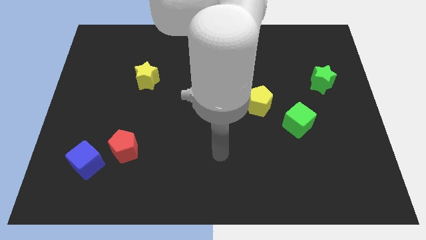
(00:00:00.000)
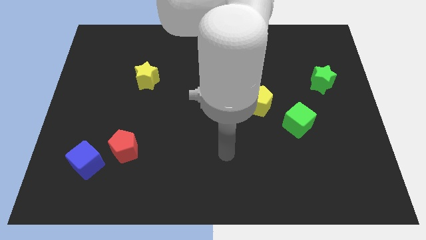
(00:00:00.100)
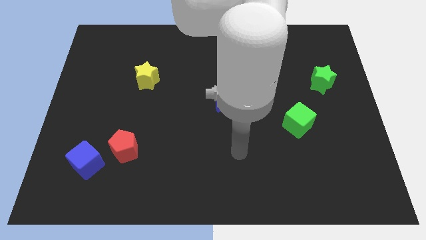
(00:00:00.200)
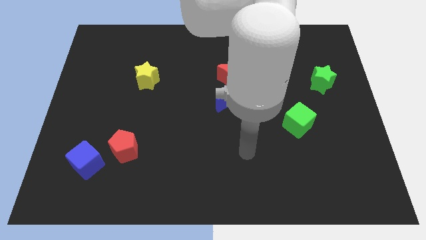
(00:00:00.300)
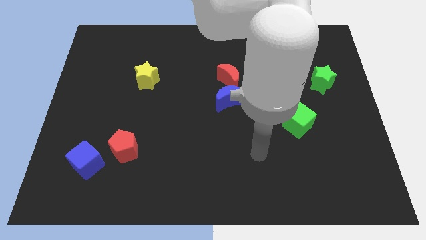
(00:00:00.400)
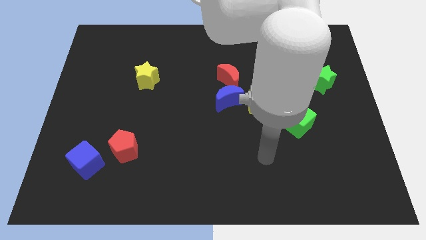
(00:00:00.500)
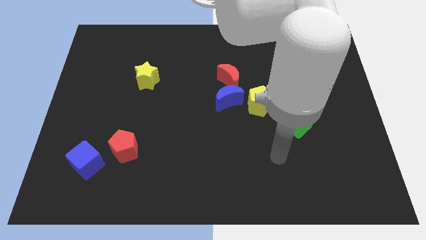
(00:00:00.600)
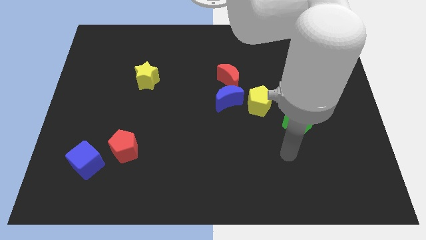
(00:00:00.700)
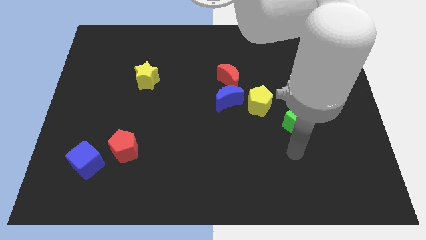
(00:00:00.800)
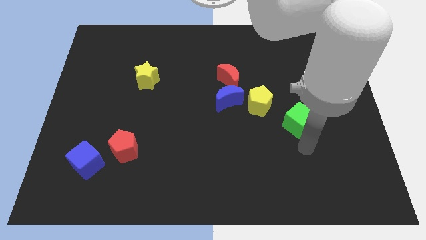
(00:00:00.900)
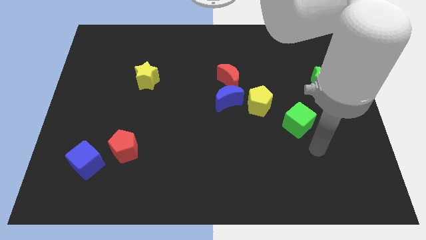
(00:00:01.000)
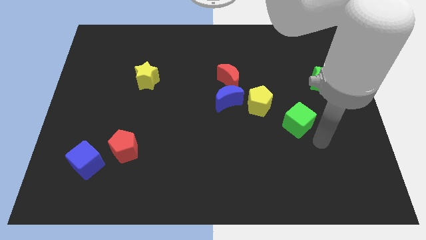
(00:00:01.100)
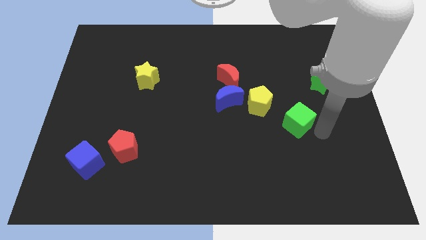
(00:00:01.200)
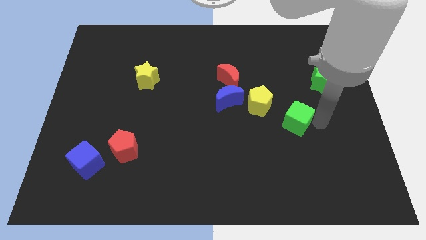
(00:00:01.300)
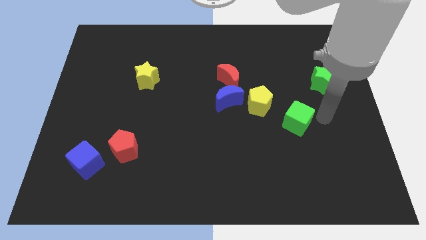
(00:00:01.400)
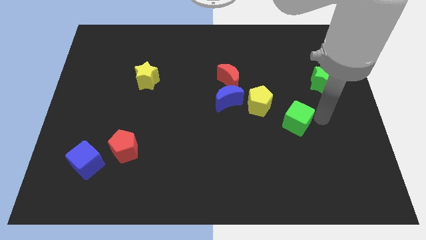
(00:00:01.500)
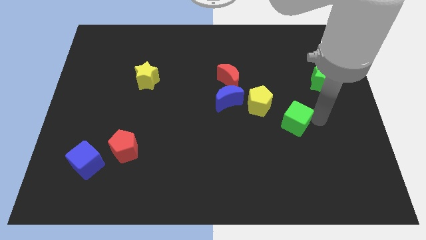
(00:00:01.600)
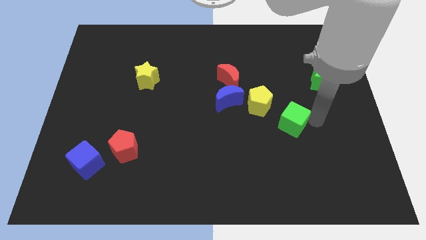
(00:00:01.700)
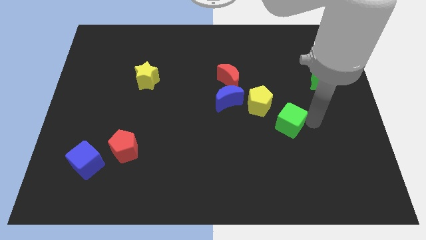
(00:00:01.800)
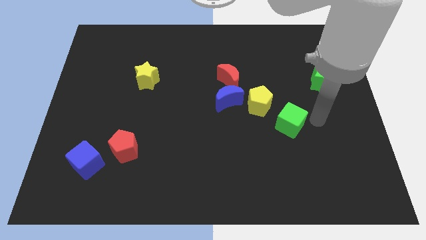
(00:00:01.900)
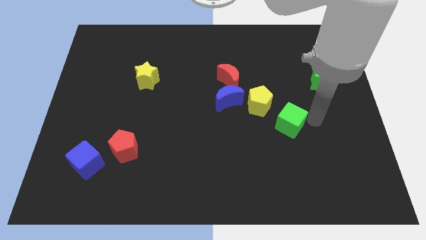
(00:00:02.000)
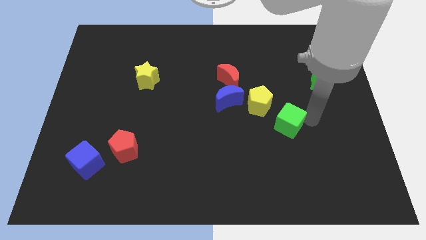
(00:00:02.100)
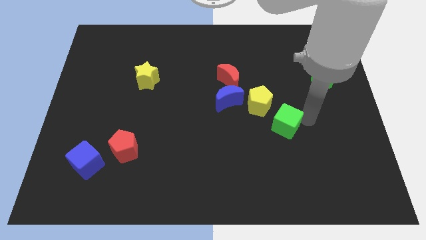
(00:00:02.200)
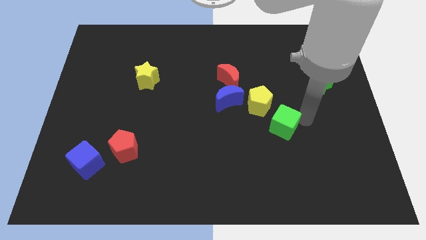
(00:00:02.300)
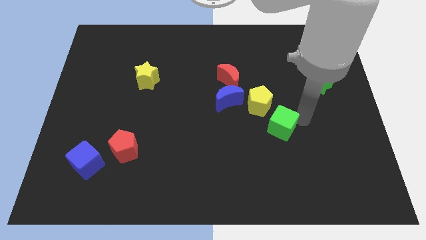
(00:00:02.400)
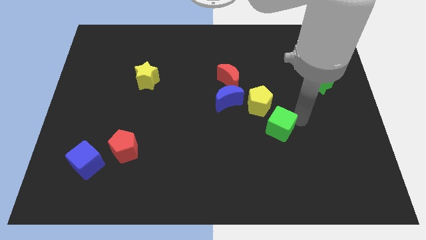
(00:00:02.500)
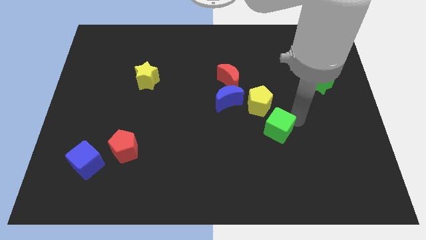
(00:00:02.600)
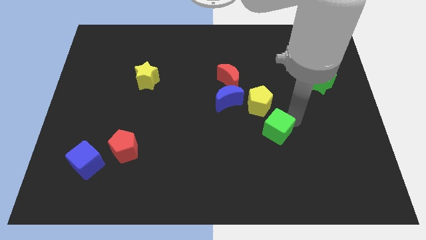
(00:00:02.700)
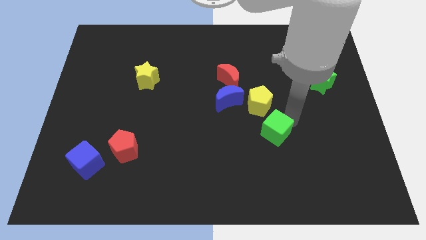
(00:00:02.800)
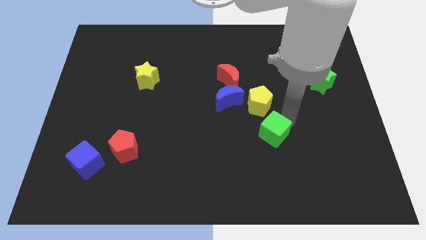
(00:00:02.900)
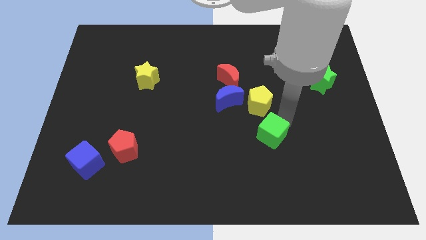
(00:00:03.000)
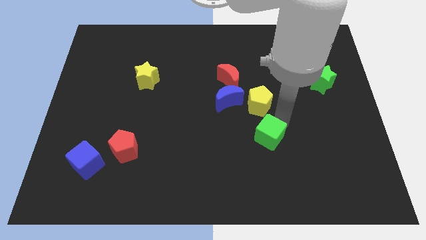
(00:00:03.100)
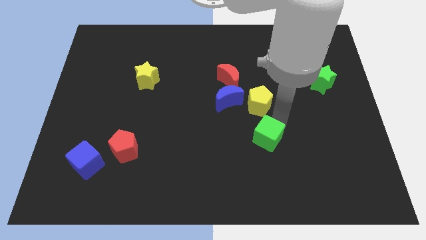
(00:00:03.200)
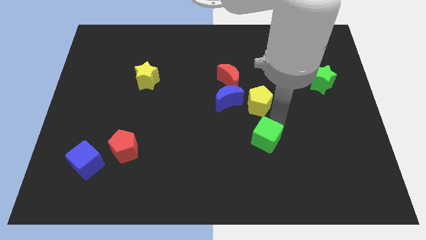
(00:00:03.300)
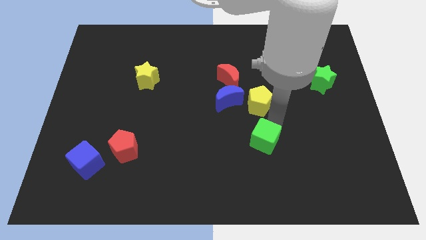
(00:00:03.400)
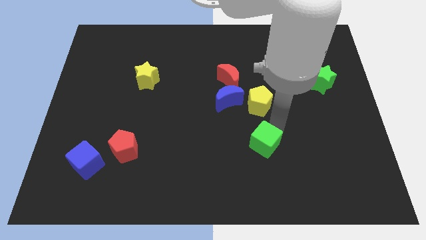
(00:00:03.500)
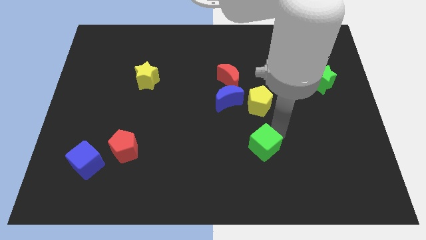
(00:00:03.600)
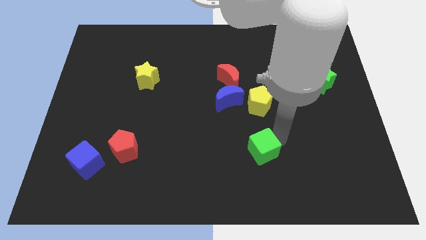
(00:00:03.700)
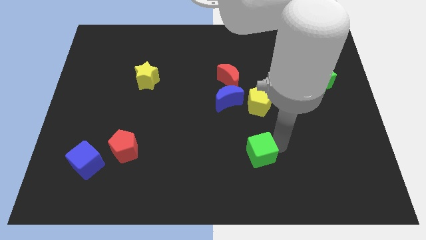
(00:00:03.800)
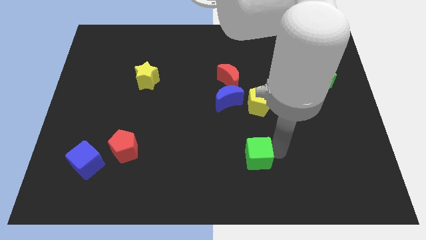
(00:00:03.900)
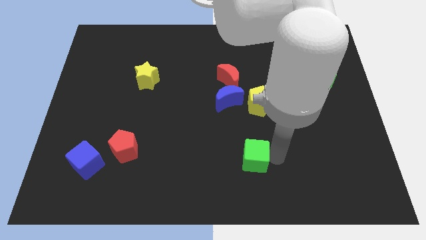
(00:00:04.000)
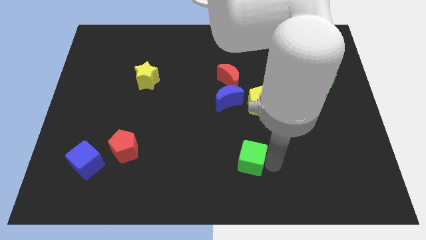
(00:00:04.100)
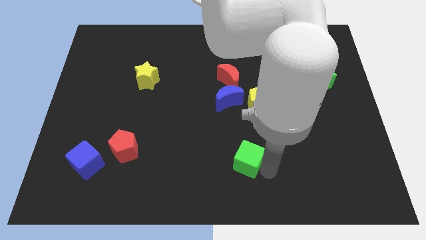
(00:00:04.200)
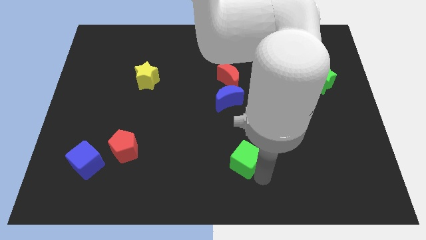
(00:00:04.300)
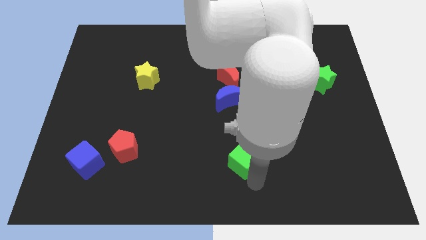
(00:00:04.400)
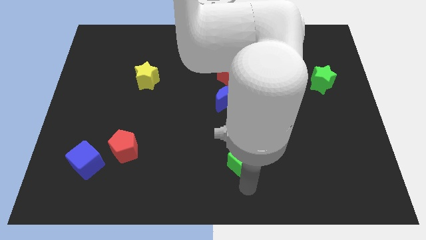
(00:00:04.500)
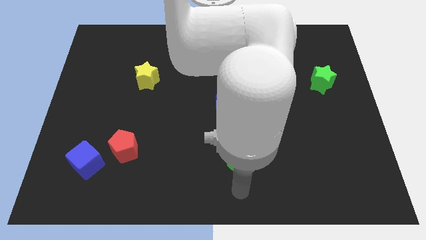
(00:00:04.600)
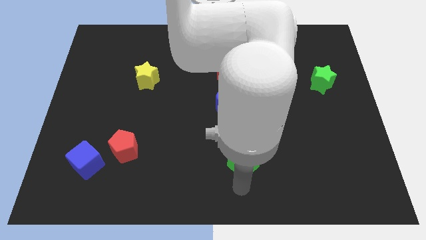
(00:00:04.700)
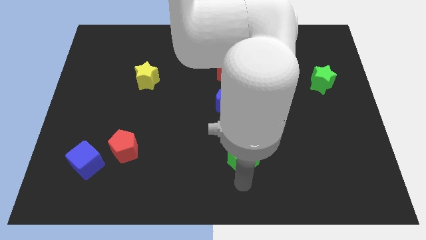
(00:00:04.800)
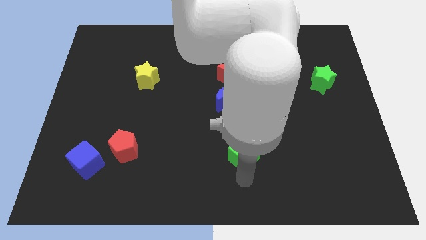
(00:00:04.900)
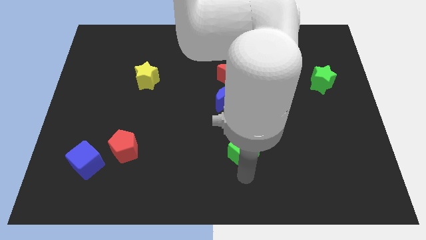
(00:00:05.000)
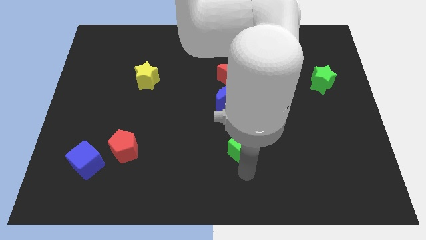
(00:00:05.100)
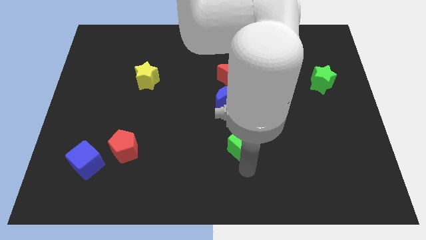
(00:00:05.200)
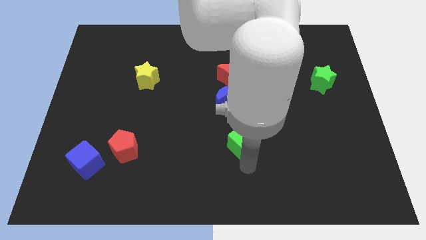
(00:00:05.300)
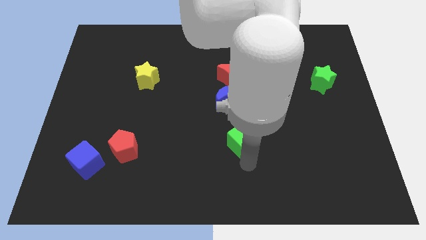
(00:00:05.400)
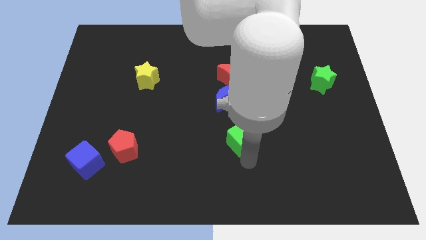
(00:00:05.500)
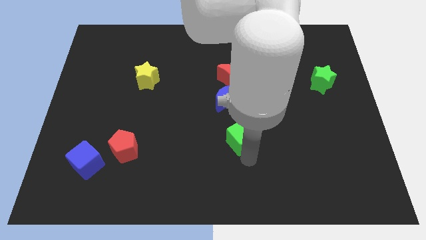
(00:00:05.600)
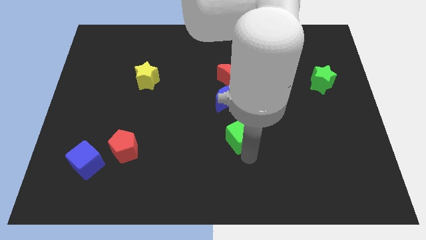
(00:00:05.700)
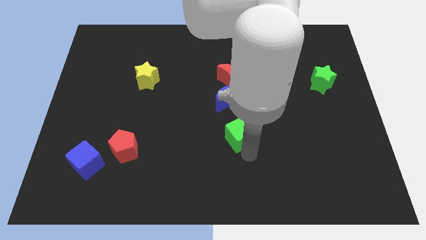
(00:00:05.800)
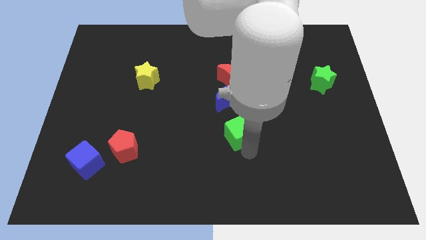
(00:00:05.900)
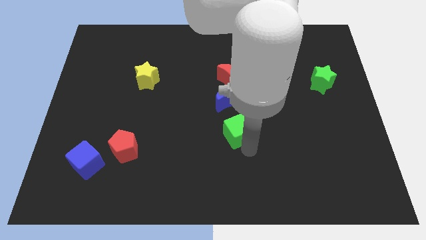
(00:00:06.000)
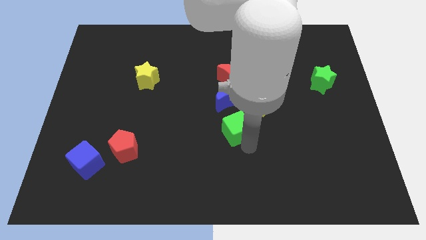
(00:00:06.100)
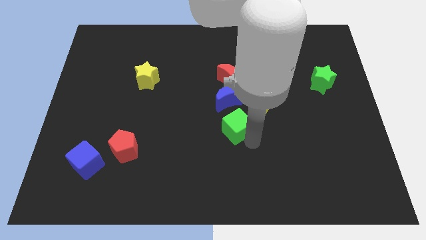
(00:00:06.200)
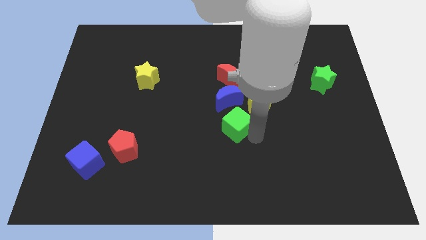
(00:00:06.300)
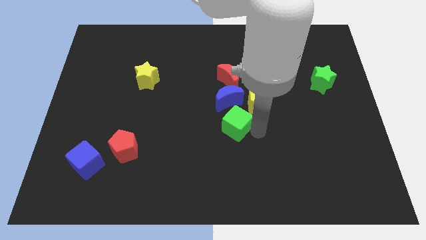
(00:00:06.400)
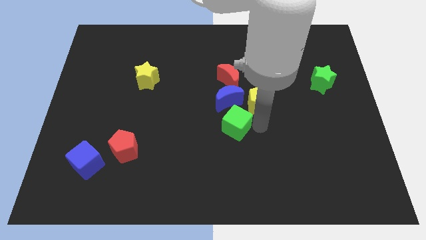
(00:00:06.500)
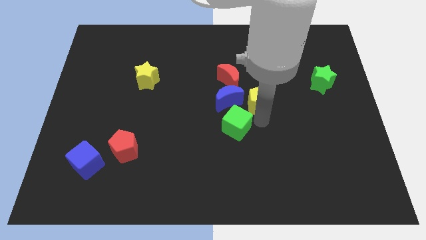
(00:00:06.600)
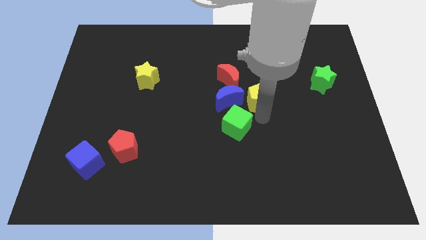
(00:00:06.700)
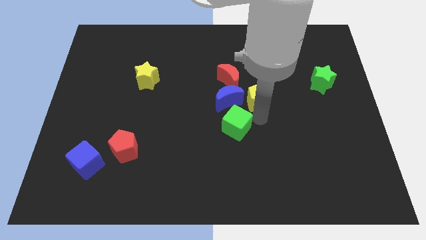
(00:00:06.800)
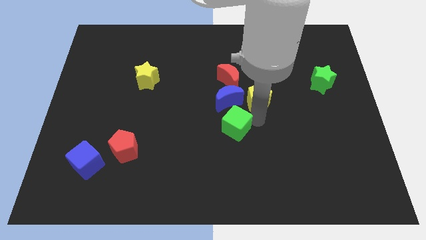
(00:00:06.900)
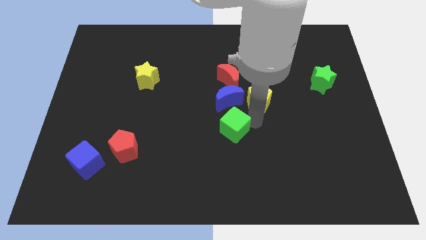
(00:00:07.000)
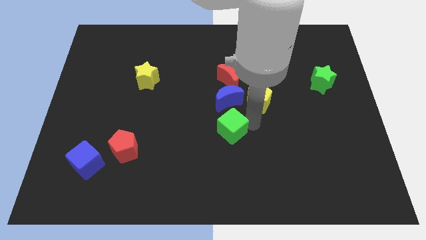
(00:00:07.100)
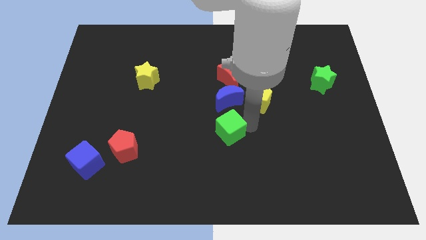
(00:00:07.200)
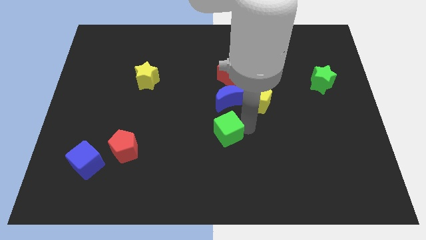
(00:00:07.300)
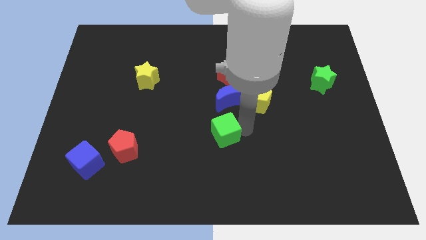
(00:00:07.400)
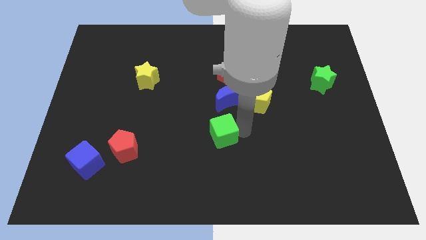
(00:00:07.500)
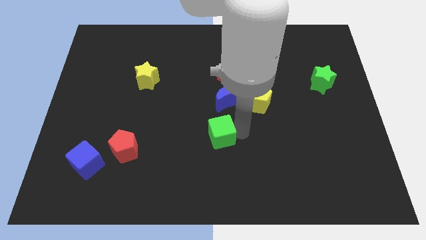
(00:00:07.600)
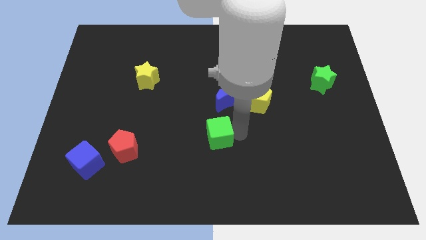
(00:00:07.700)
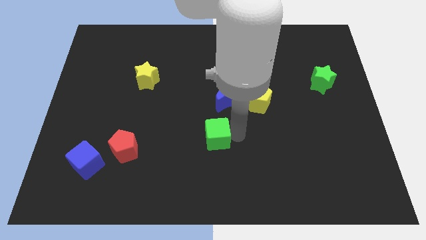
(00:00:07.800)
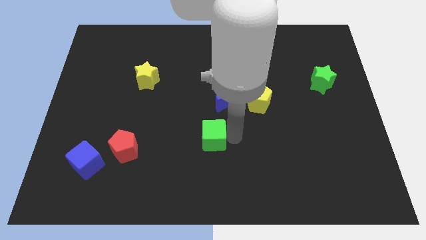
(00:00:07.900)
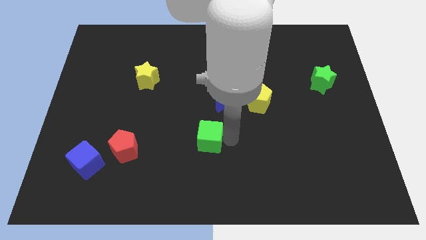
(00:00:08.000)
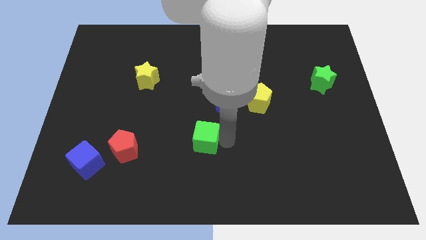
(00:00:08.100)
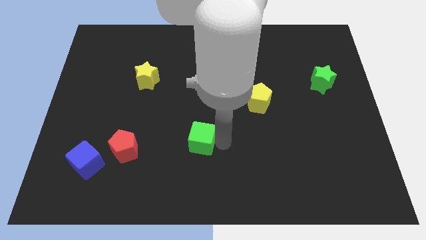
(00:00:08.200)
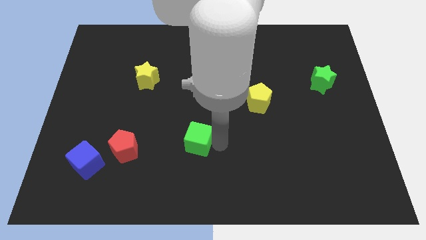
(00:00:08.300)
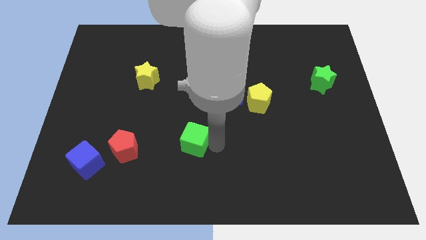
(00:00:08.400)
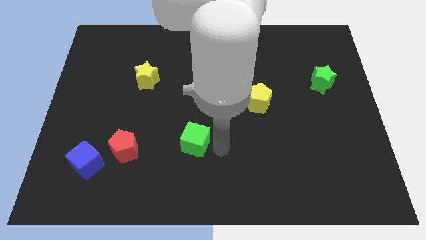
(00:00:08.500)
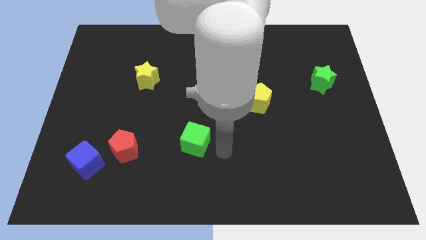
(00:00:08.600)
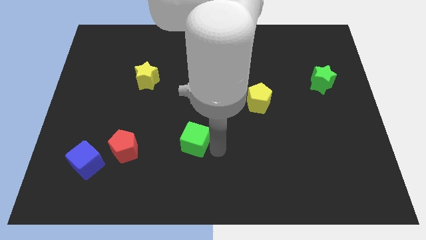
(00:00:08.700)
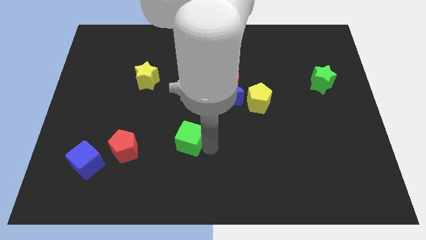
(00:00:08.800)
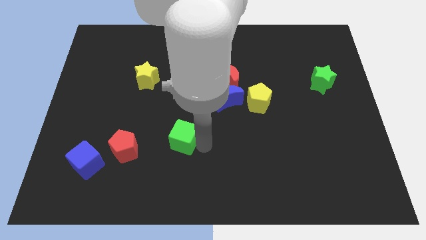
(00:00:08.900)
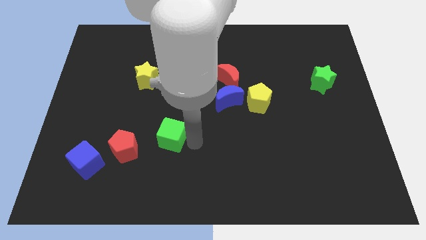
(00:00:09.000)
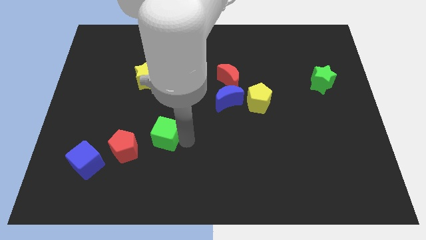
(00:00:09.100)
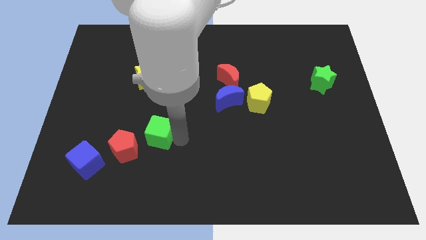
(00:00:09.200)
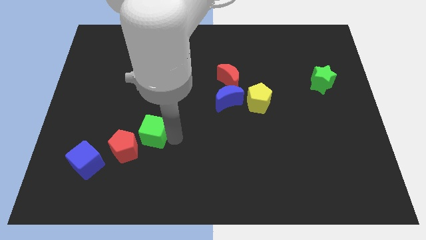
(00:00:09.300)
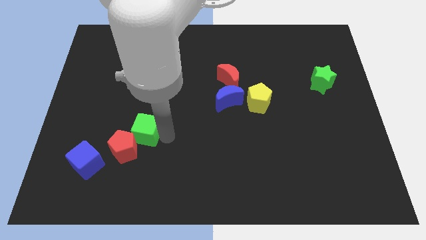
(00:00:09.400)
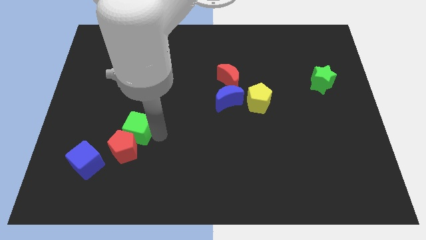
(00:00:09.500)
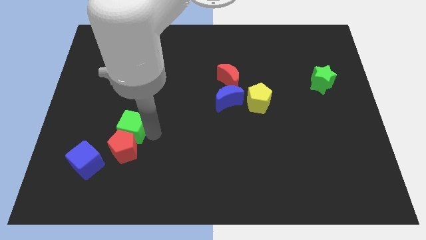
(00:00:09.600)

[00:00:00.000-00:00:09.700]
push the green cube to the top left side of the red pentagon
